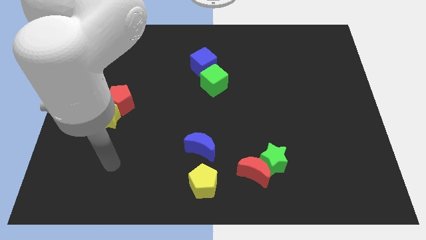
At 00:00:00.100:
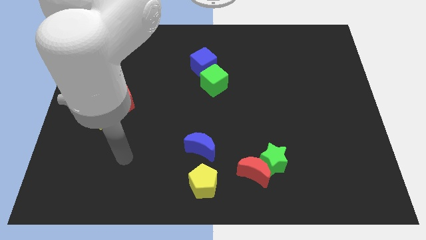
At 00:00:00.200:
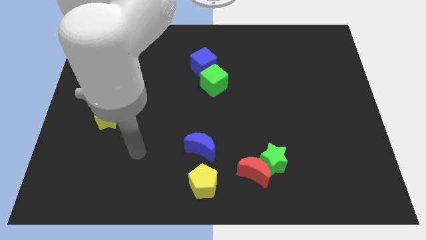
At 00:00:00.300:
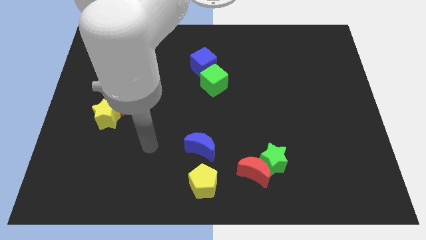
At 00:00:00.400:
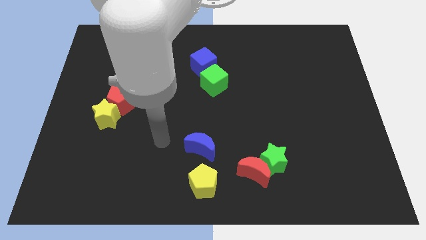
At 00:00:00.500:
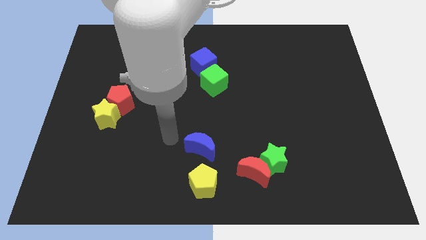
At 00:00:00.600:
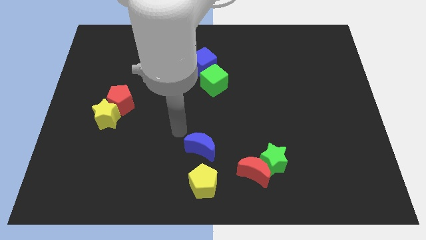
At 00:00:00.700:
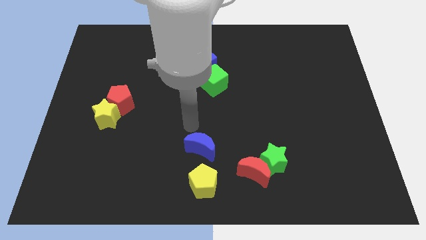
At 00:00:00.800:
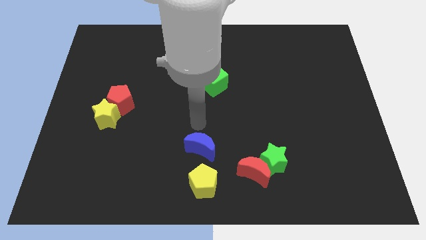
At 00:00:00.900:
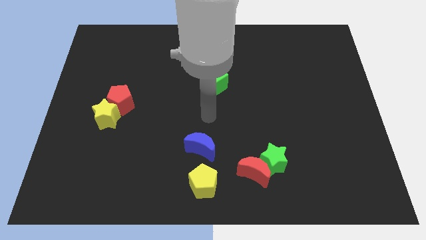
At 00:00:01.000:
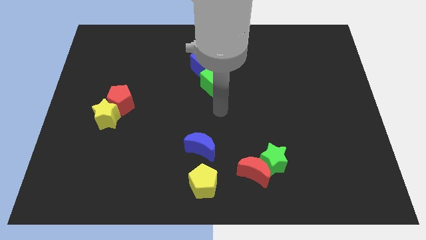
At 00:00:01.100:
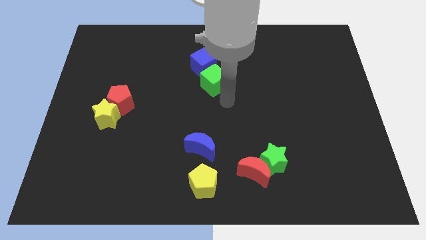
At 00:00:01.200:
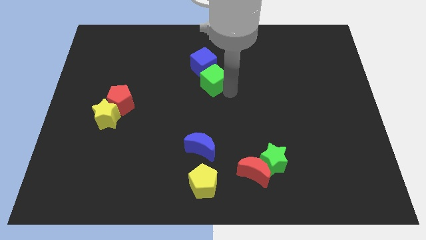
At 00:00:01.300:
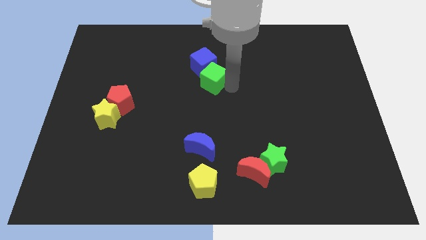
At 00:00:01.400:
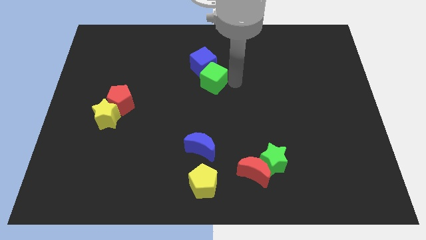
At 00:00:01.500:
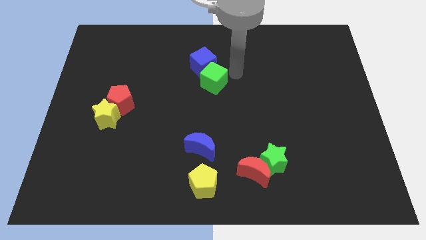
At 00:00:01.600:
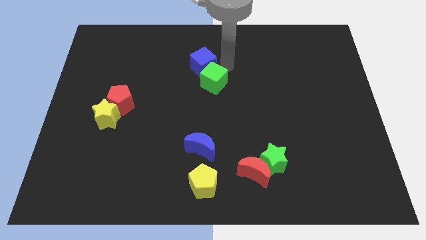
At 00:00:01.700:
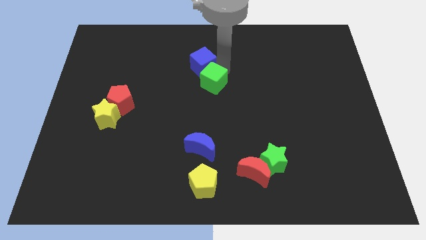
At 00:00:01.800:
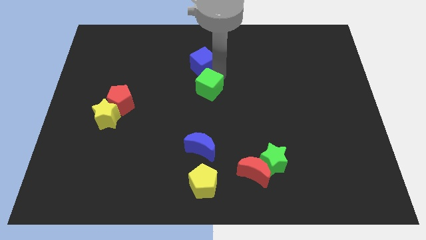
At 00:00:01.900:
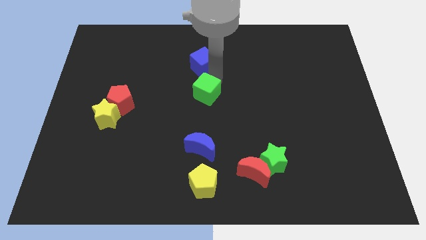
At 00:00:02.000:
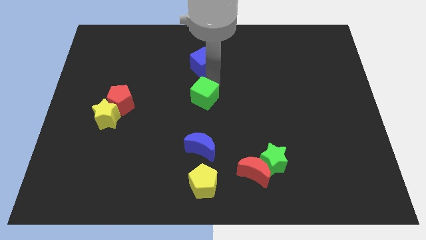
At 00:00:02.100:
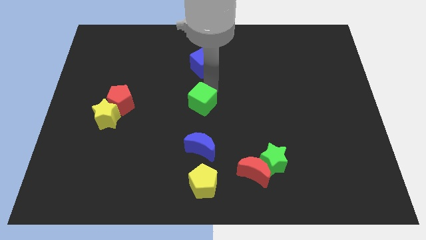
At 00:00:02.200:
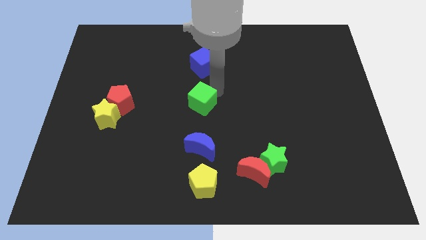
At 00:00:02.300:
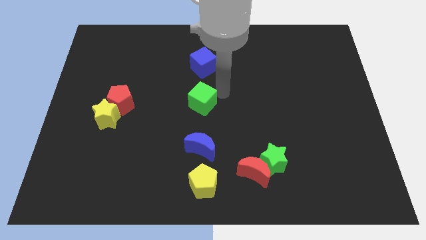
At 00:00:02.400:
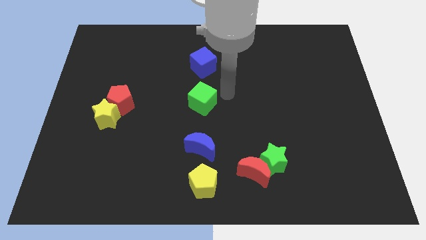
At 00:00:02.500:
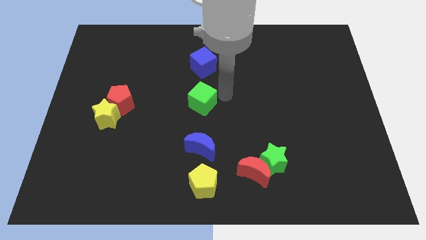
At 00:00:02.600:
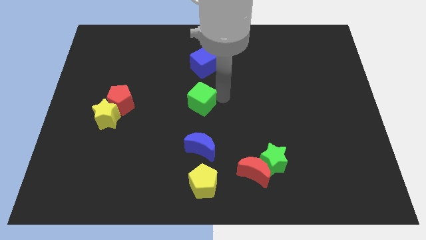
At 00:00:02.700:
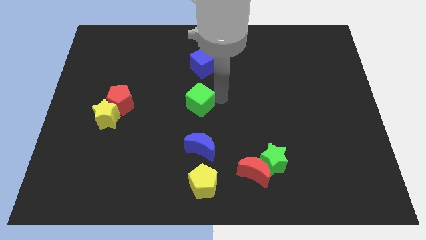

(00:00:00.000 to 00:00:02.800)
slide the green cube diagonally downwards and left slightly

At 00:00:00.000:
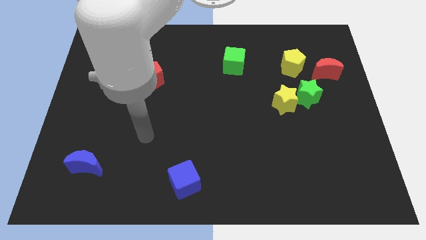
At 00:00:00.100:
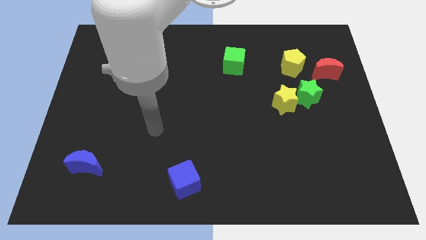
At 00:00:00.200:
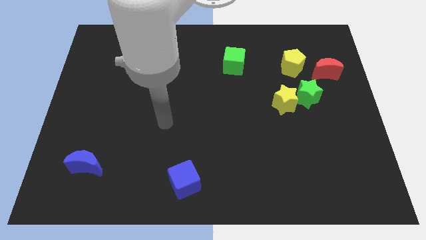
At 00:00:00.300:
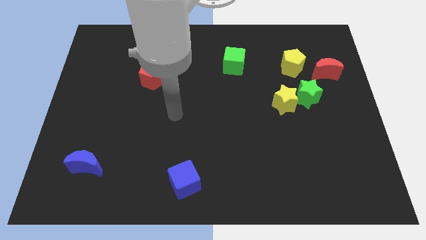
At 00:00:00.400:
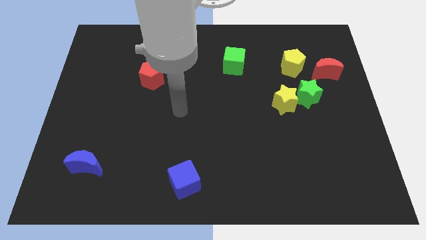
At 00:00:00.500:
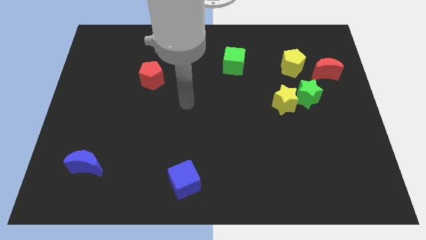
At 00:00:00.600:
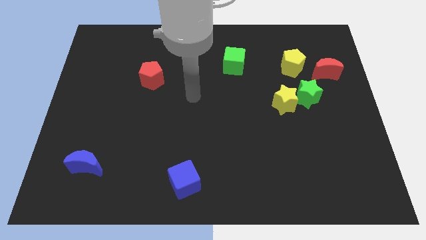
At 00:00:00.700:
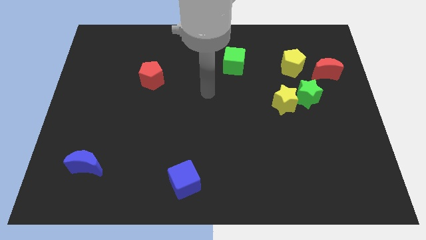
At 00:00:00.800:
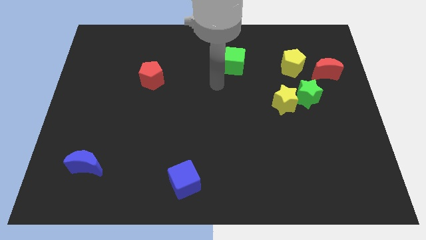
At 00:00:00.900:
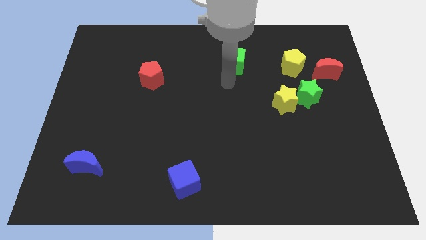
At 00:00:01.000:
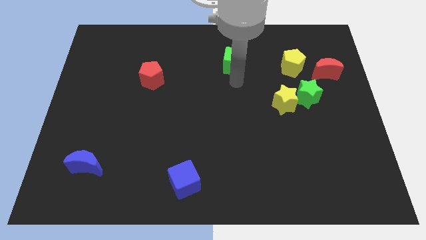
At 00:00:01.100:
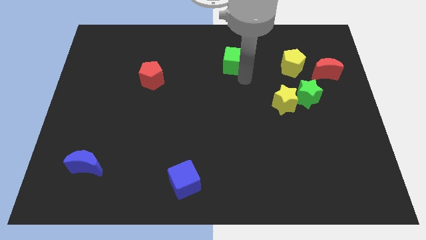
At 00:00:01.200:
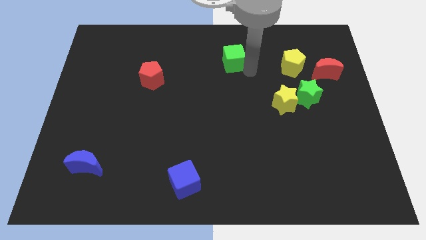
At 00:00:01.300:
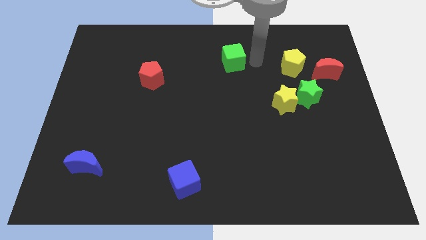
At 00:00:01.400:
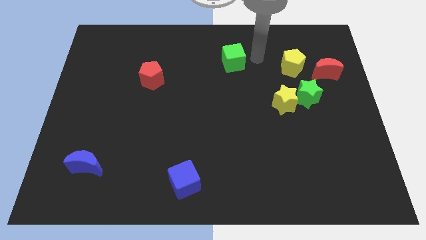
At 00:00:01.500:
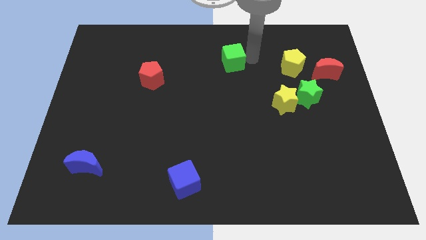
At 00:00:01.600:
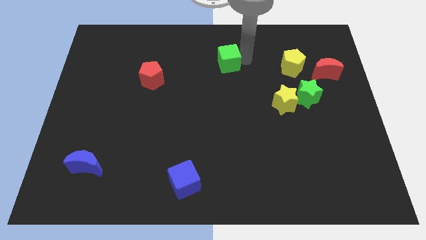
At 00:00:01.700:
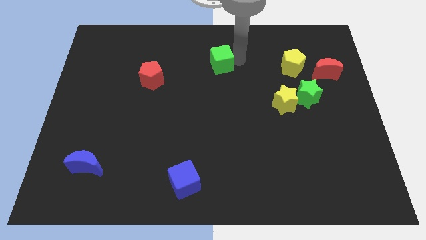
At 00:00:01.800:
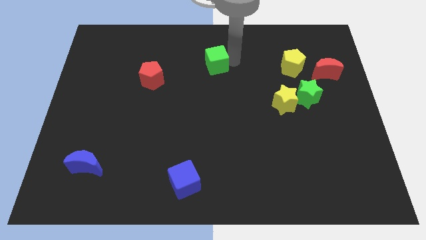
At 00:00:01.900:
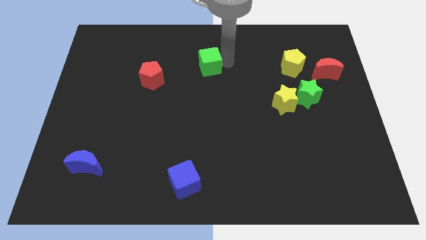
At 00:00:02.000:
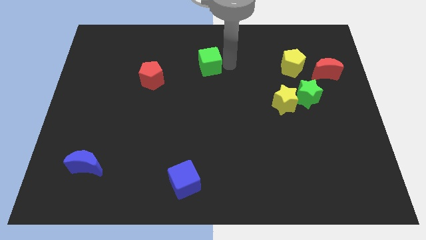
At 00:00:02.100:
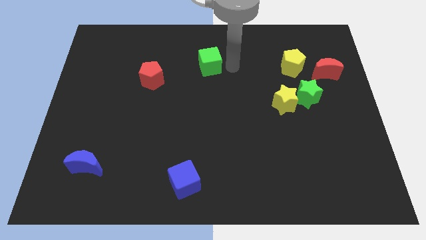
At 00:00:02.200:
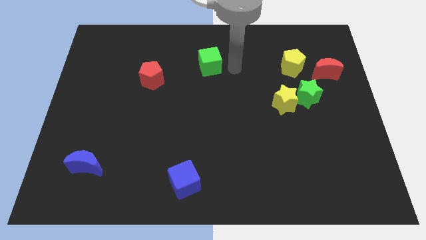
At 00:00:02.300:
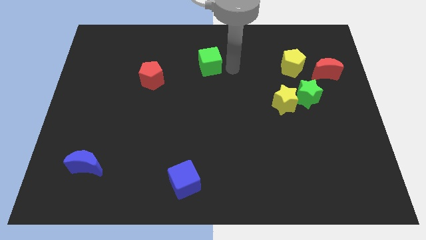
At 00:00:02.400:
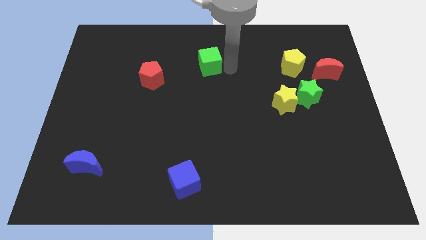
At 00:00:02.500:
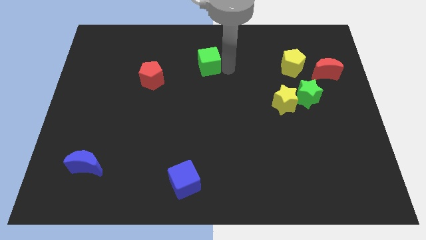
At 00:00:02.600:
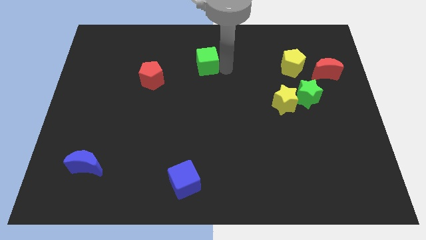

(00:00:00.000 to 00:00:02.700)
slightly push the green cube left

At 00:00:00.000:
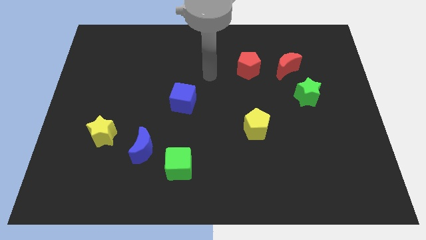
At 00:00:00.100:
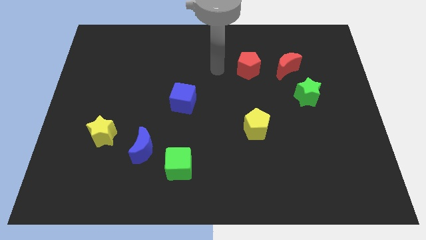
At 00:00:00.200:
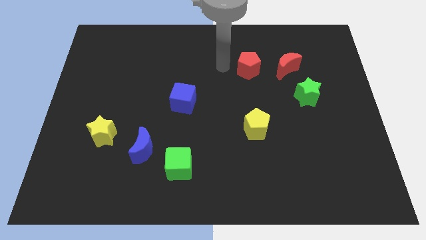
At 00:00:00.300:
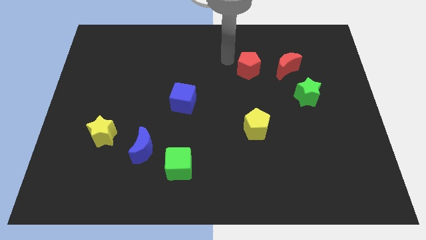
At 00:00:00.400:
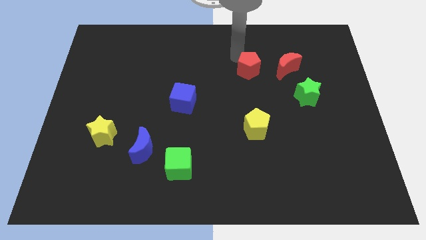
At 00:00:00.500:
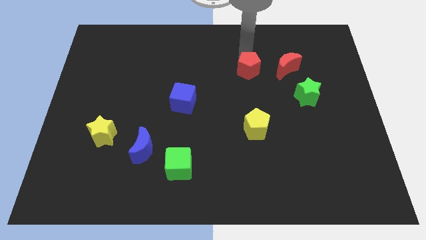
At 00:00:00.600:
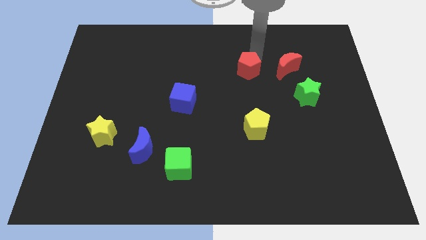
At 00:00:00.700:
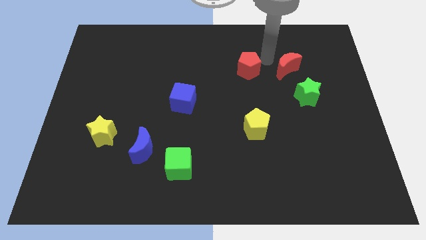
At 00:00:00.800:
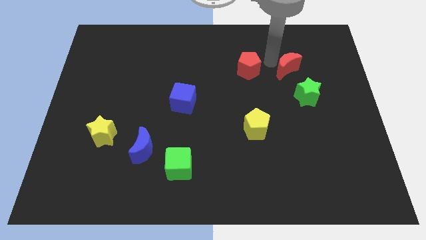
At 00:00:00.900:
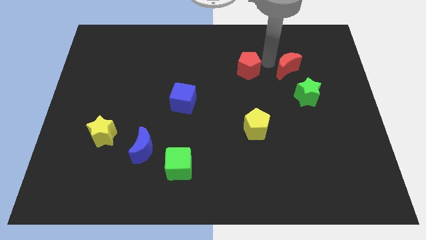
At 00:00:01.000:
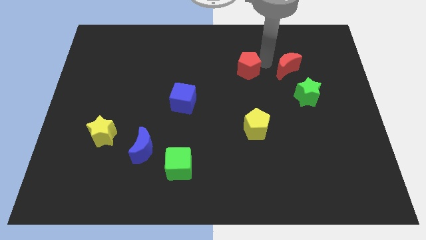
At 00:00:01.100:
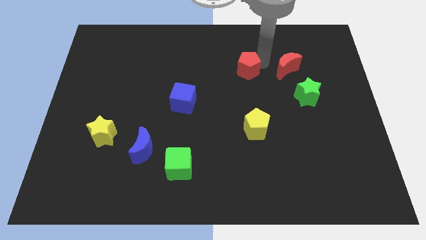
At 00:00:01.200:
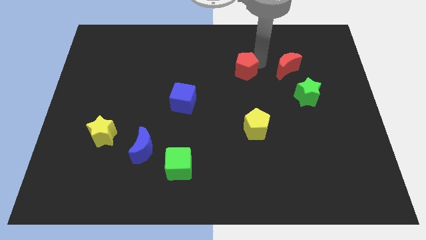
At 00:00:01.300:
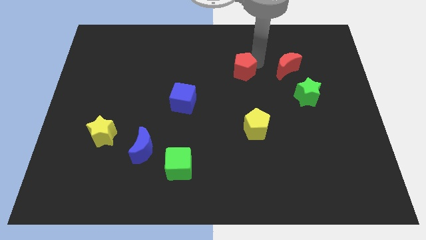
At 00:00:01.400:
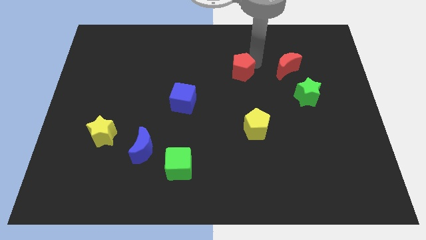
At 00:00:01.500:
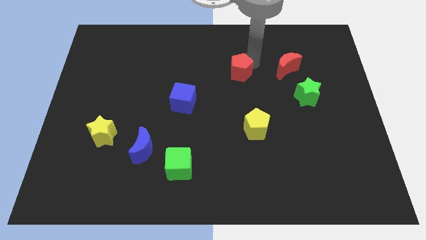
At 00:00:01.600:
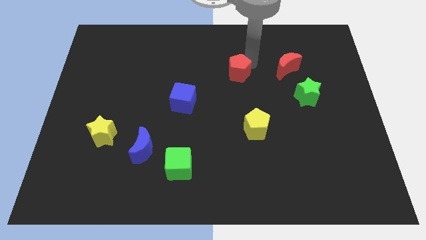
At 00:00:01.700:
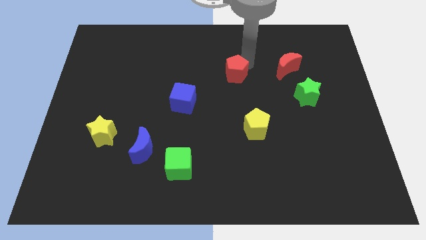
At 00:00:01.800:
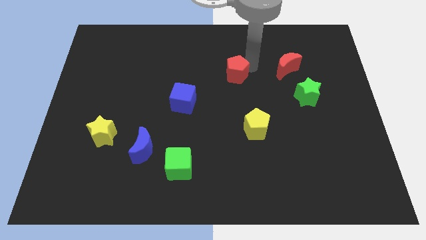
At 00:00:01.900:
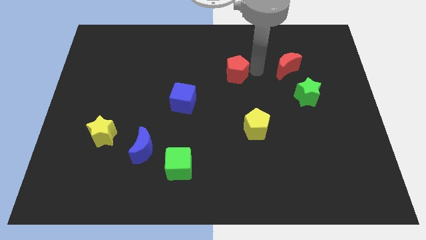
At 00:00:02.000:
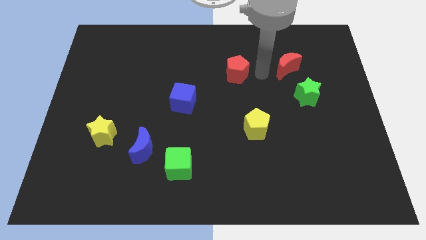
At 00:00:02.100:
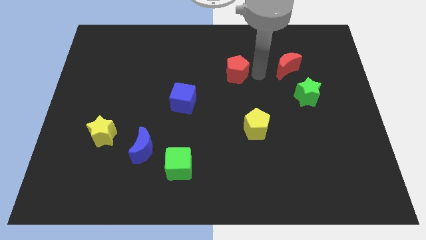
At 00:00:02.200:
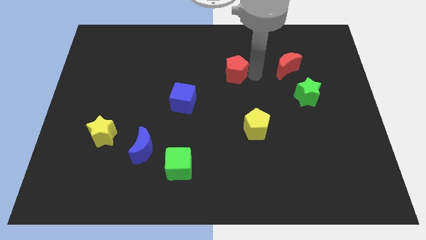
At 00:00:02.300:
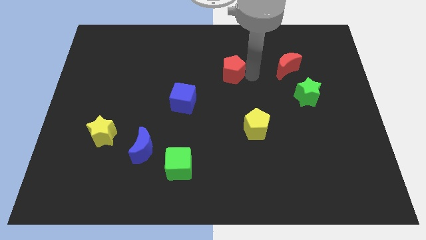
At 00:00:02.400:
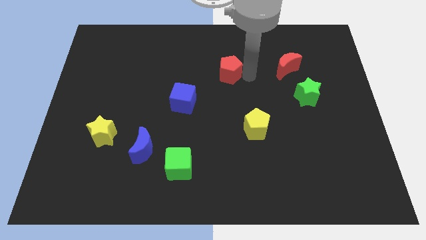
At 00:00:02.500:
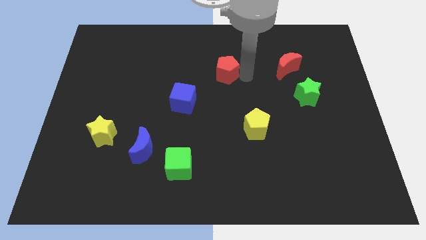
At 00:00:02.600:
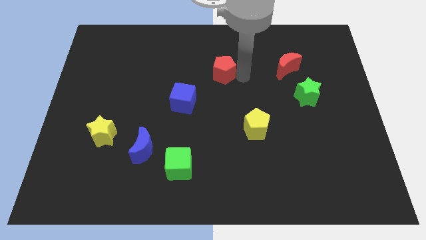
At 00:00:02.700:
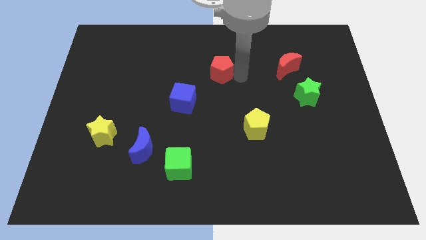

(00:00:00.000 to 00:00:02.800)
move the red pentagon a bit to the left
